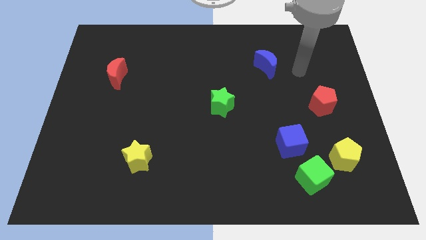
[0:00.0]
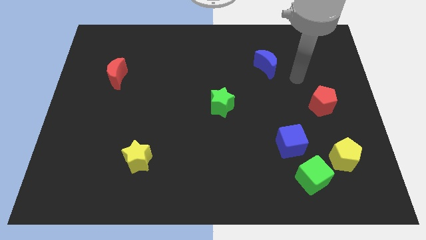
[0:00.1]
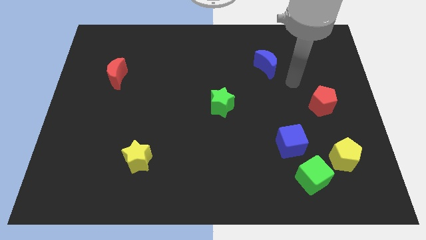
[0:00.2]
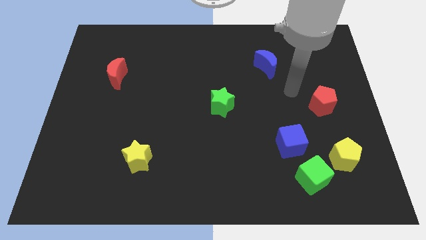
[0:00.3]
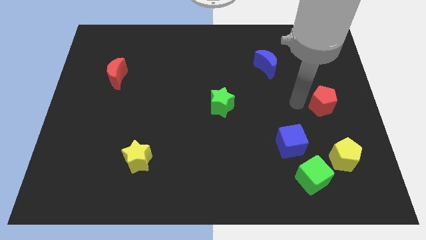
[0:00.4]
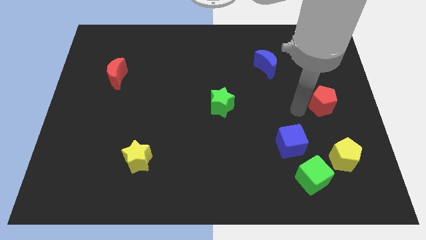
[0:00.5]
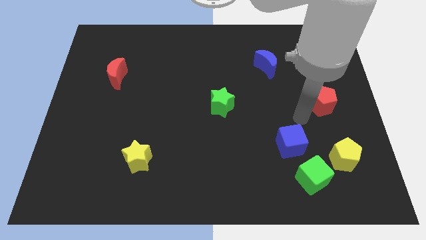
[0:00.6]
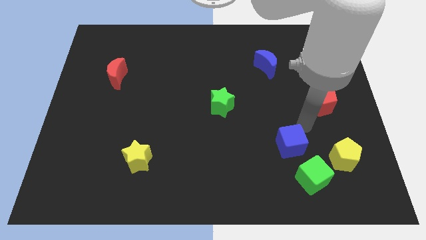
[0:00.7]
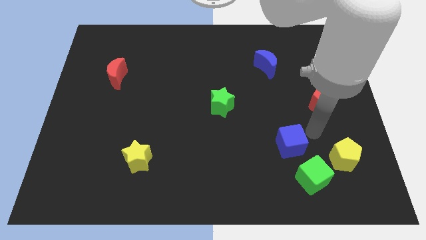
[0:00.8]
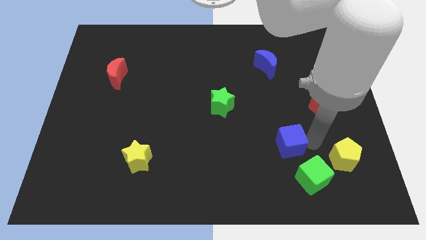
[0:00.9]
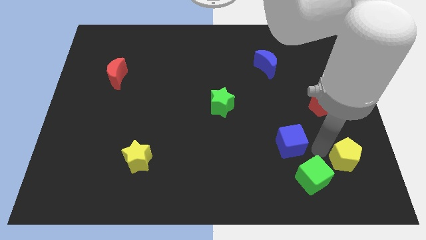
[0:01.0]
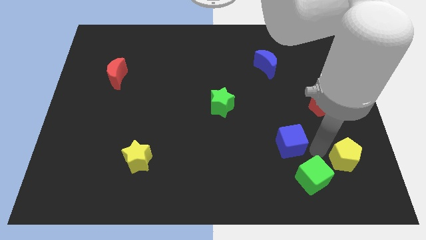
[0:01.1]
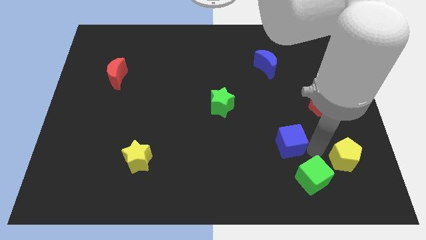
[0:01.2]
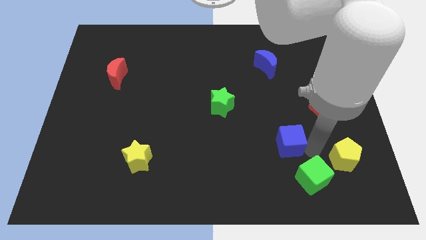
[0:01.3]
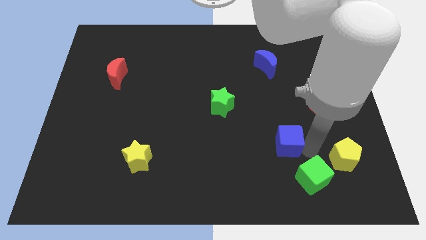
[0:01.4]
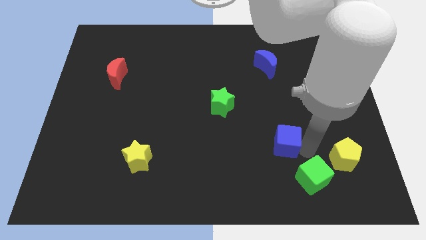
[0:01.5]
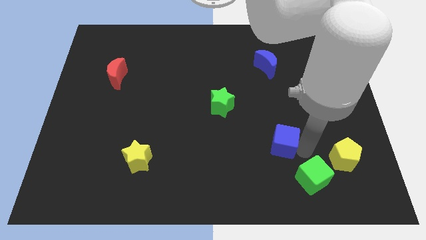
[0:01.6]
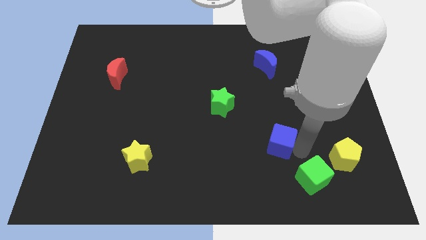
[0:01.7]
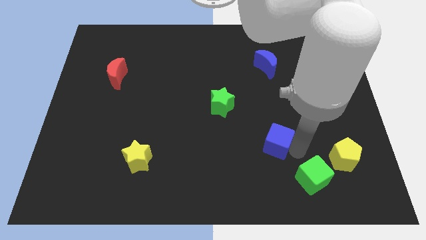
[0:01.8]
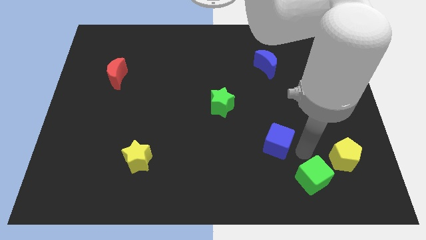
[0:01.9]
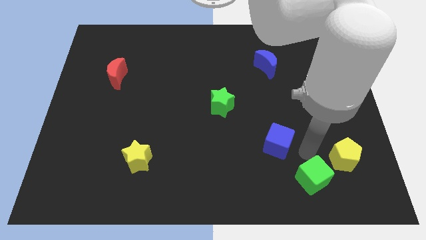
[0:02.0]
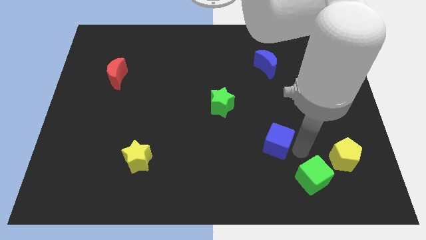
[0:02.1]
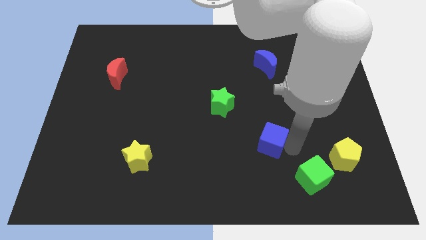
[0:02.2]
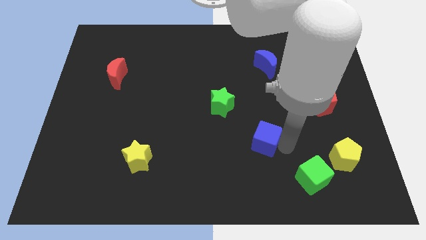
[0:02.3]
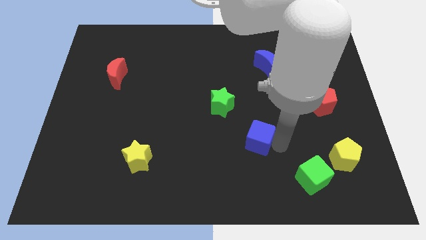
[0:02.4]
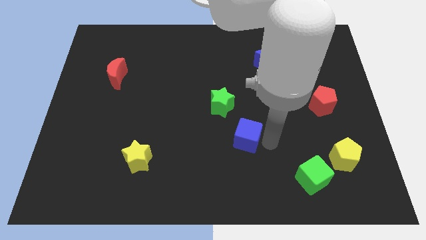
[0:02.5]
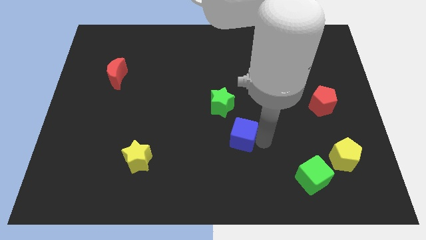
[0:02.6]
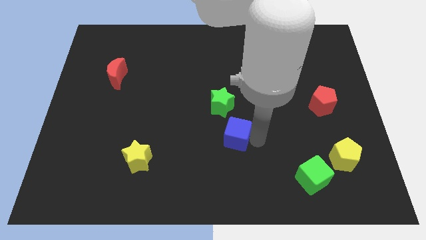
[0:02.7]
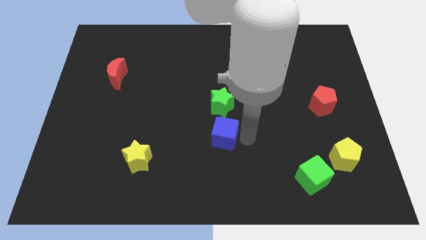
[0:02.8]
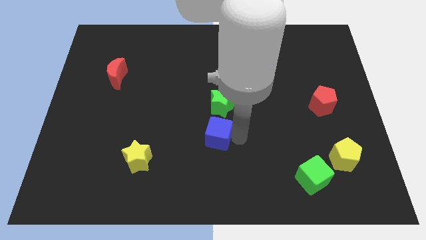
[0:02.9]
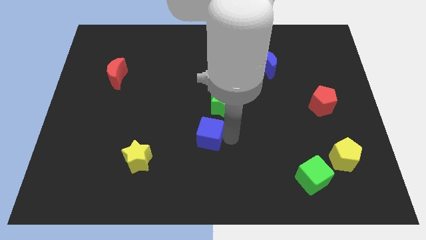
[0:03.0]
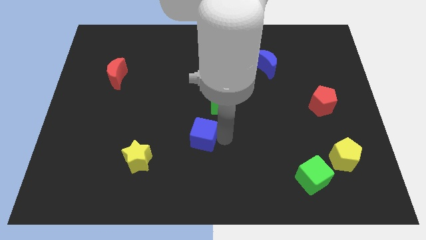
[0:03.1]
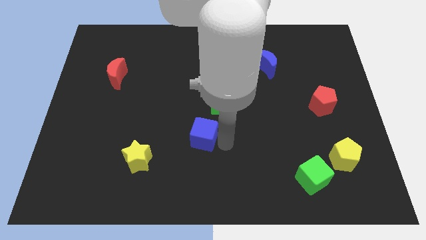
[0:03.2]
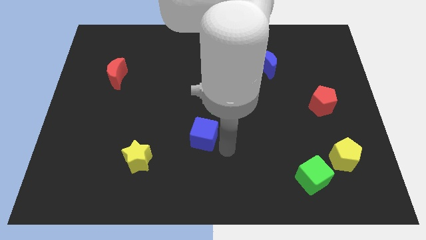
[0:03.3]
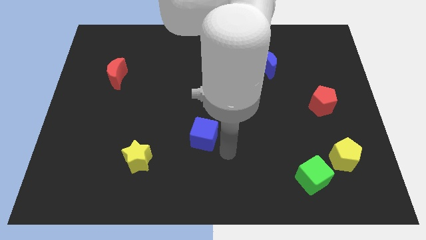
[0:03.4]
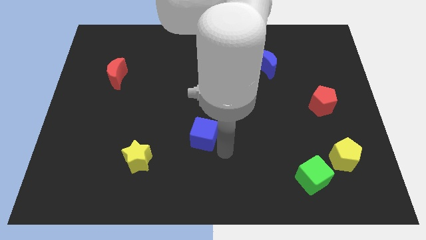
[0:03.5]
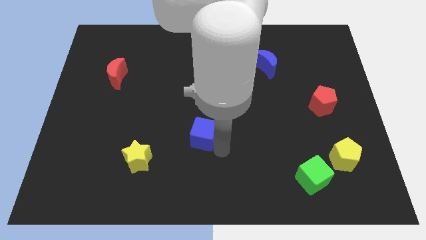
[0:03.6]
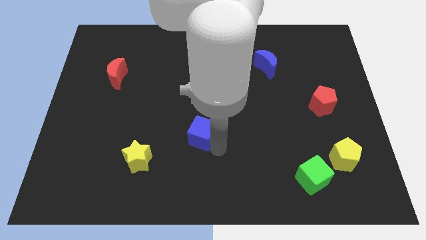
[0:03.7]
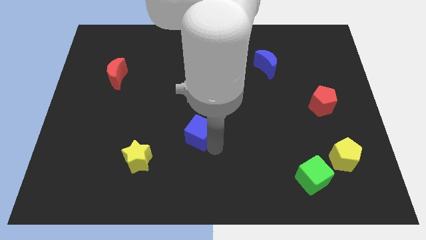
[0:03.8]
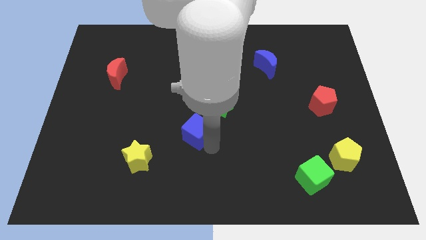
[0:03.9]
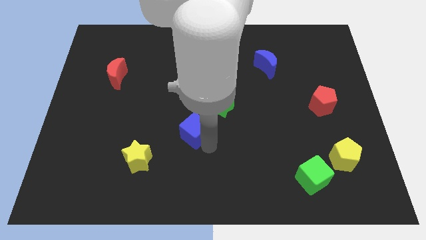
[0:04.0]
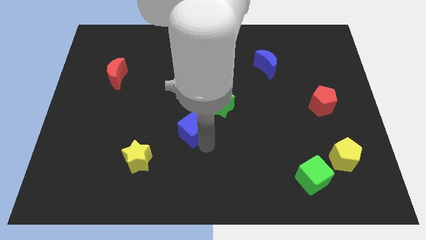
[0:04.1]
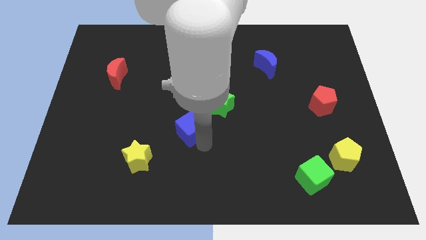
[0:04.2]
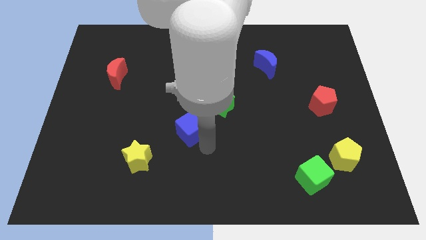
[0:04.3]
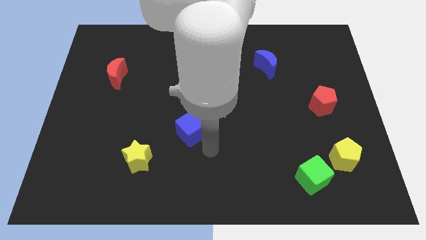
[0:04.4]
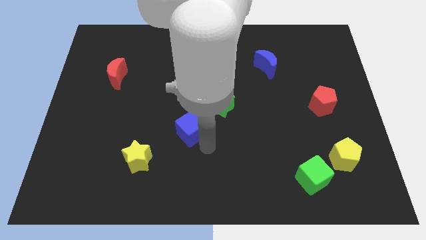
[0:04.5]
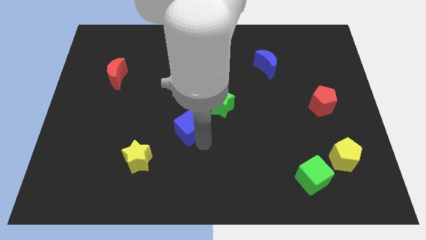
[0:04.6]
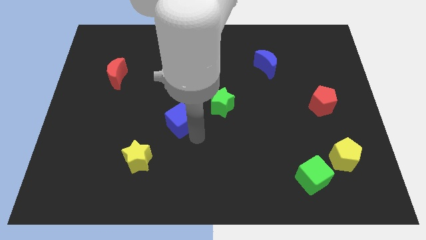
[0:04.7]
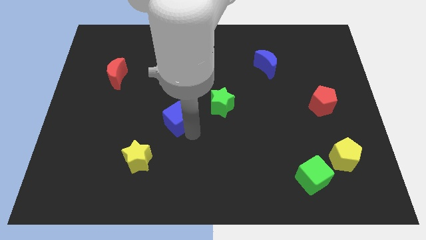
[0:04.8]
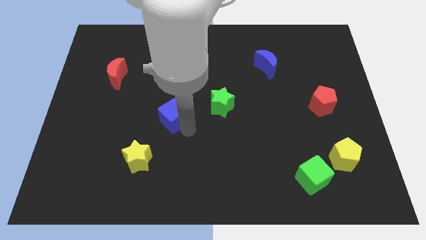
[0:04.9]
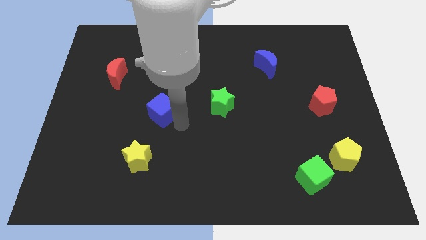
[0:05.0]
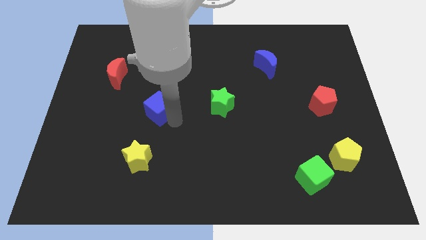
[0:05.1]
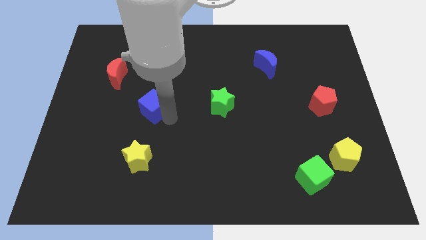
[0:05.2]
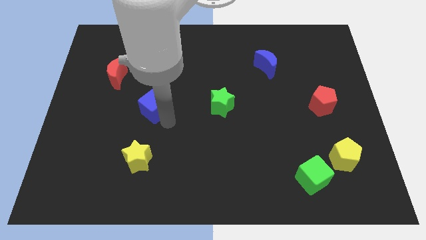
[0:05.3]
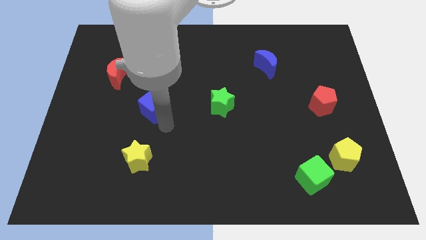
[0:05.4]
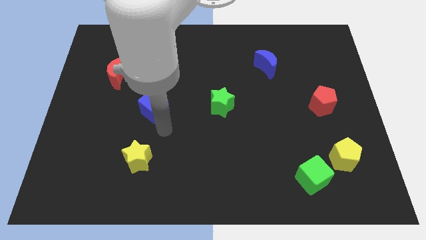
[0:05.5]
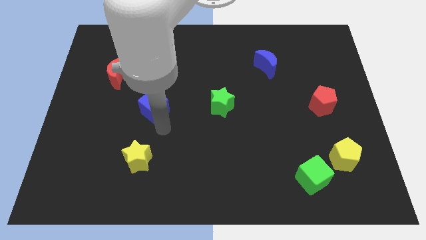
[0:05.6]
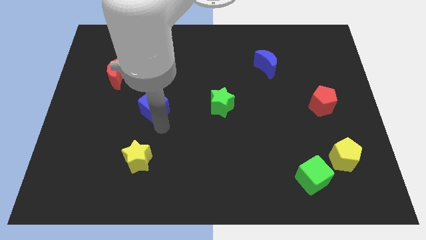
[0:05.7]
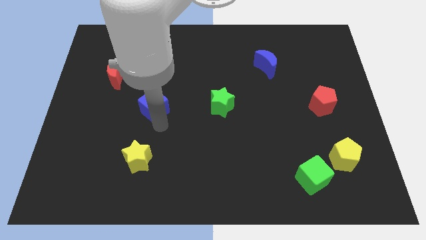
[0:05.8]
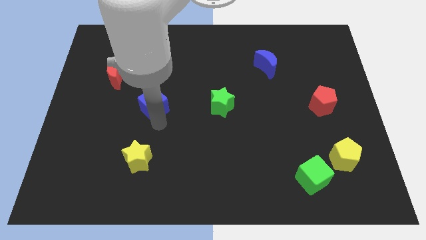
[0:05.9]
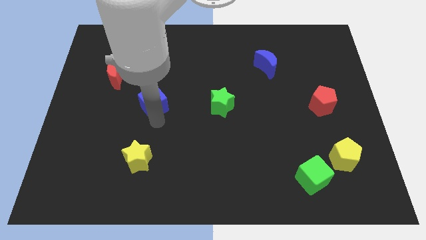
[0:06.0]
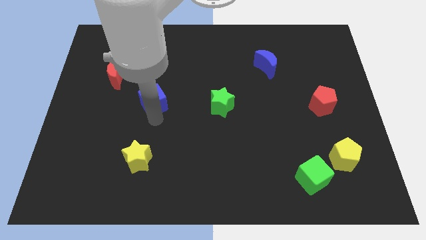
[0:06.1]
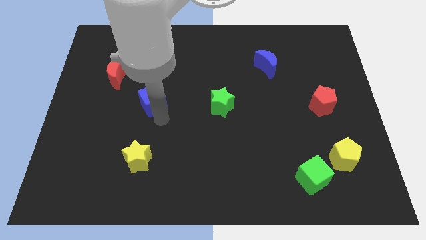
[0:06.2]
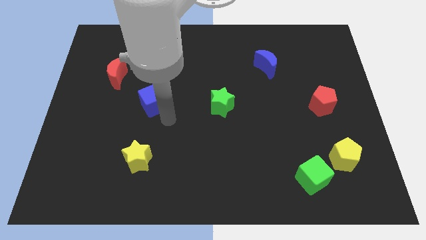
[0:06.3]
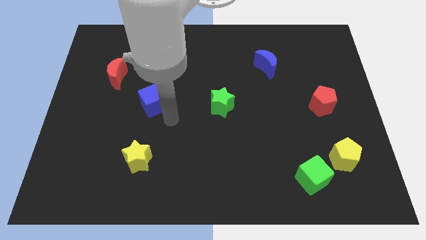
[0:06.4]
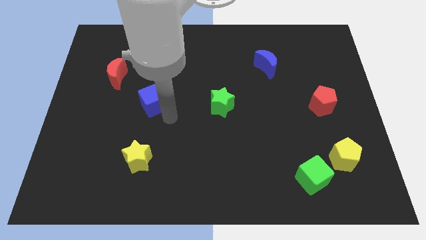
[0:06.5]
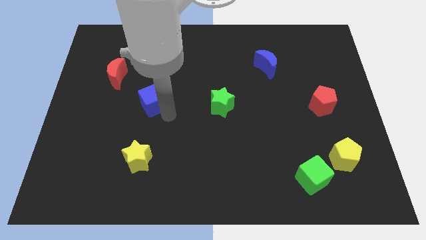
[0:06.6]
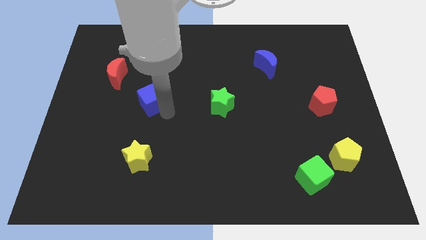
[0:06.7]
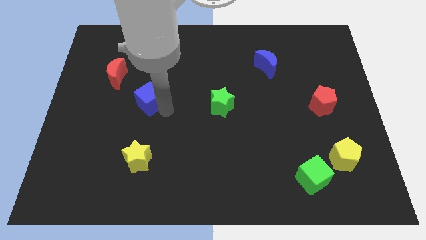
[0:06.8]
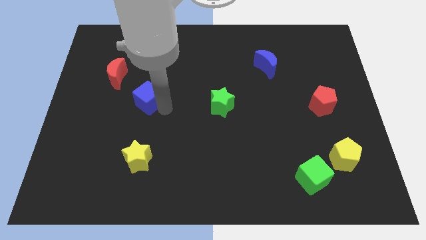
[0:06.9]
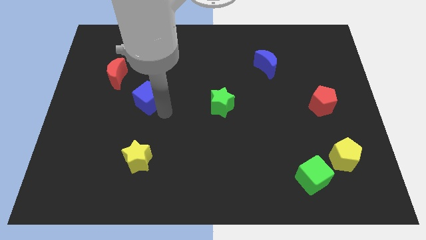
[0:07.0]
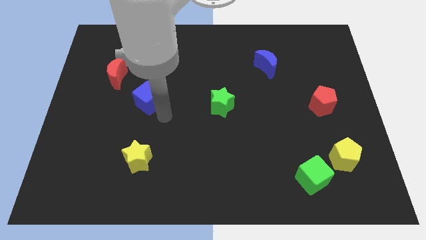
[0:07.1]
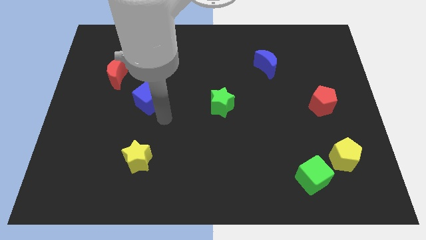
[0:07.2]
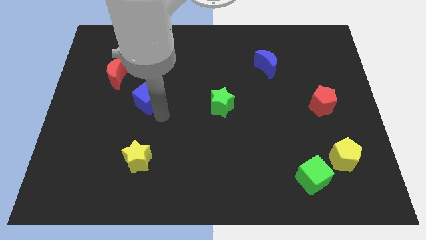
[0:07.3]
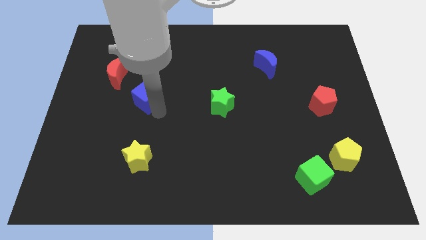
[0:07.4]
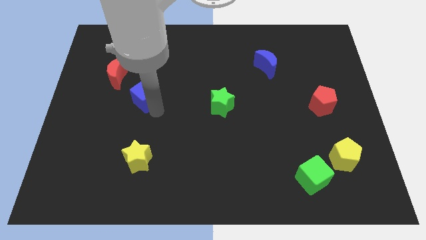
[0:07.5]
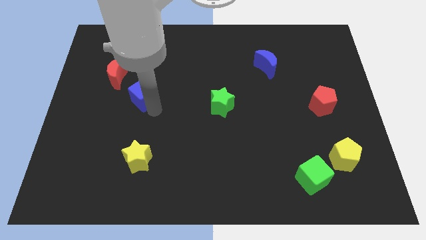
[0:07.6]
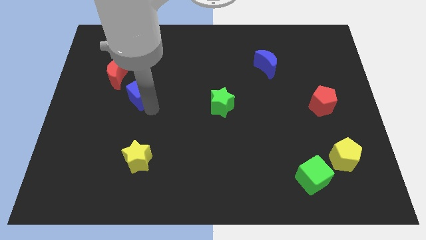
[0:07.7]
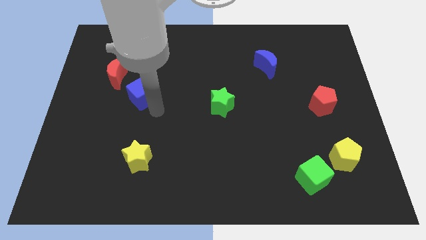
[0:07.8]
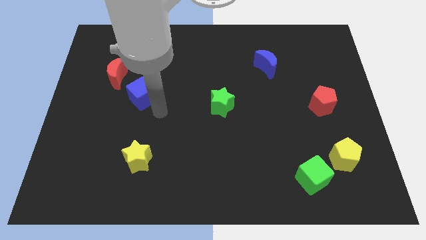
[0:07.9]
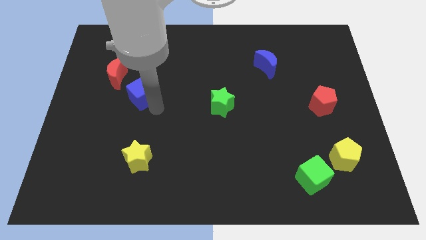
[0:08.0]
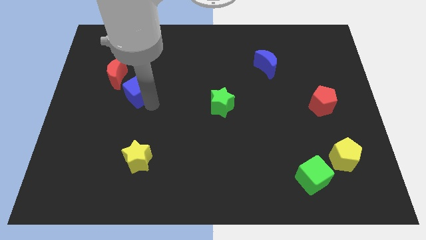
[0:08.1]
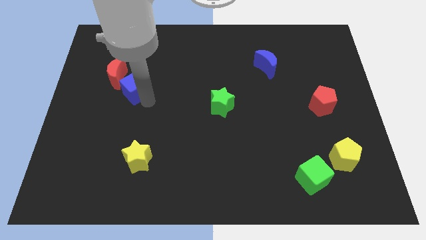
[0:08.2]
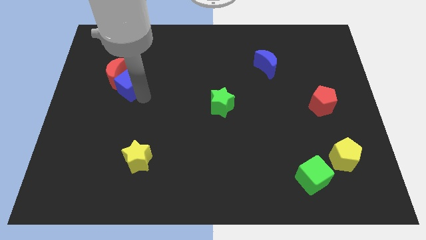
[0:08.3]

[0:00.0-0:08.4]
move the blue cube close to the red moon
